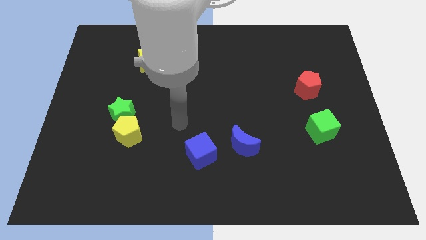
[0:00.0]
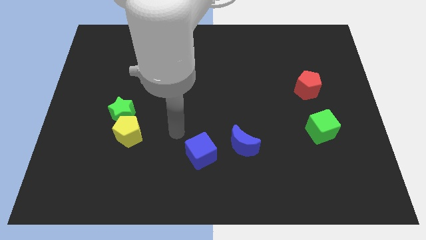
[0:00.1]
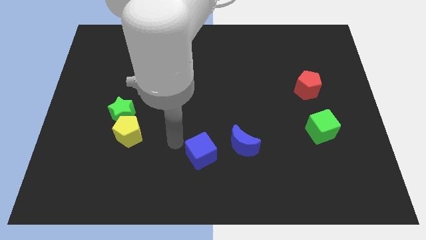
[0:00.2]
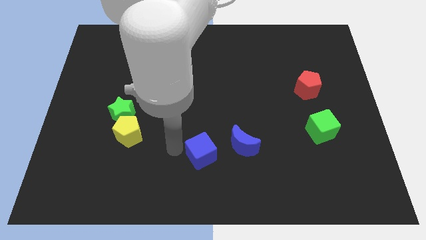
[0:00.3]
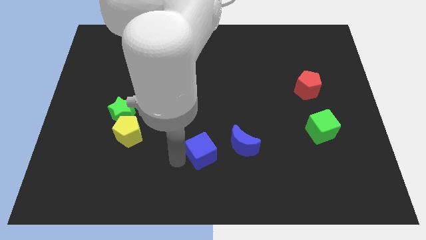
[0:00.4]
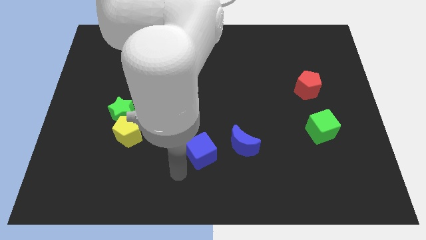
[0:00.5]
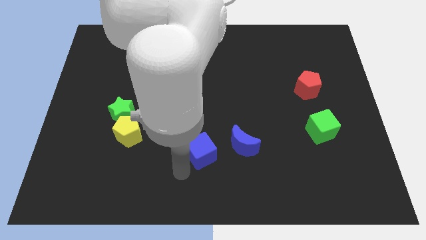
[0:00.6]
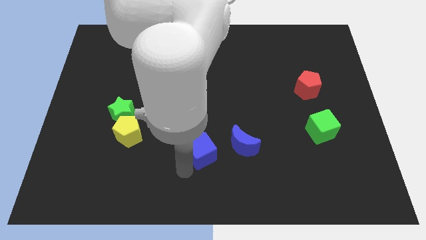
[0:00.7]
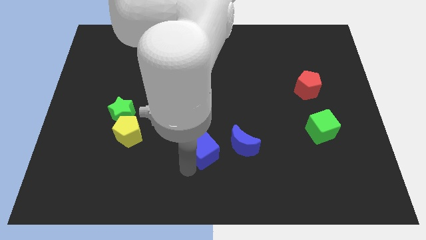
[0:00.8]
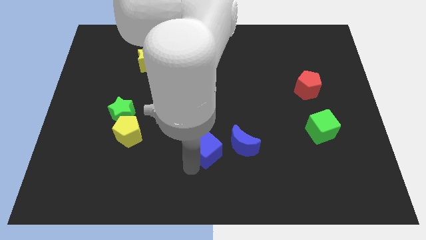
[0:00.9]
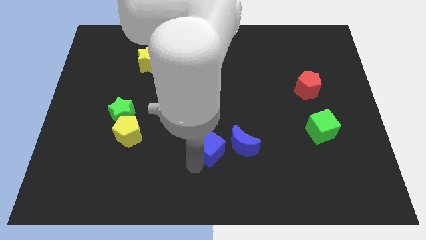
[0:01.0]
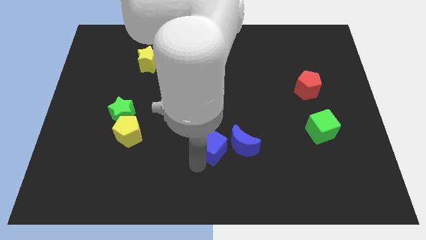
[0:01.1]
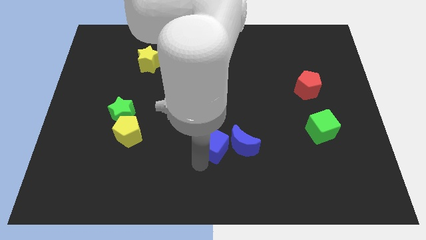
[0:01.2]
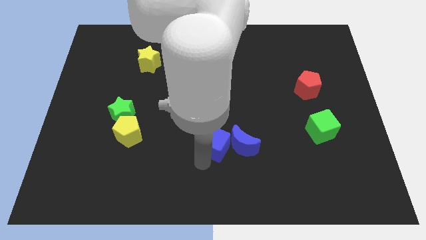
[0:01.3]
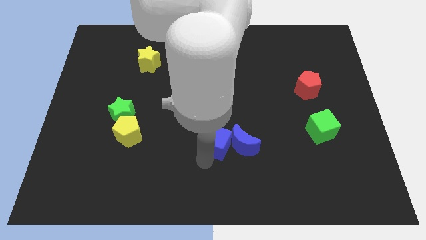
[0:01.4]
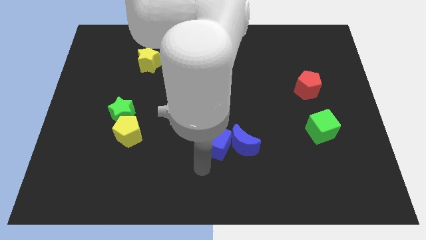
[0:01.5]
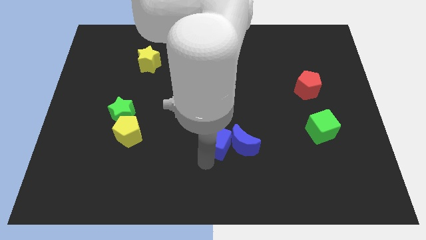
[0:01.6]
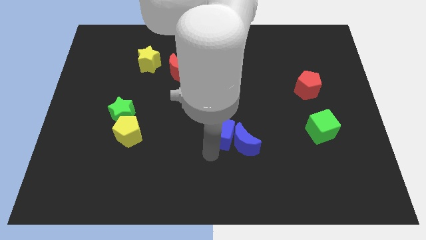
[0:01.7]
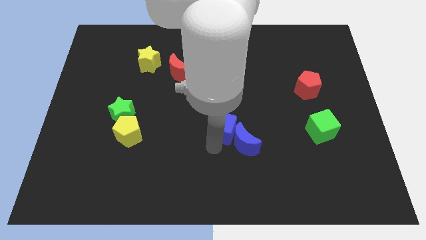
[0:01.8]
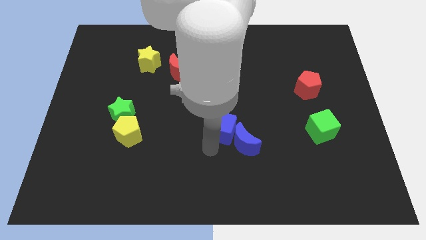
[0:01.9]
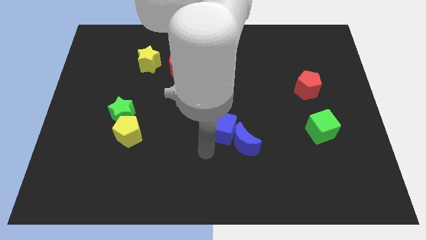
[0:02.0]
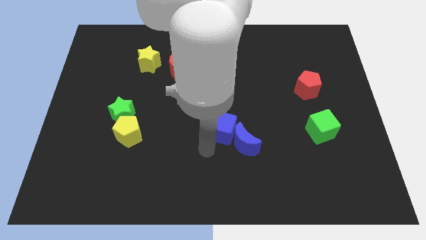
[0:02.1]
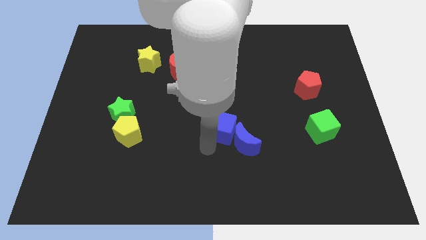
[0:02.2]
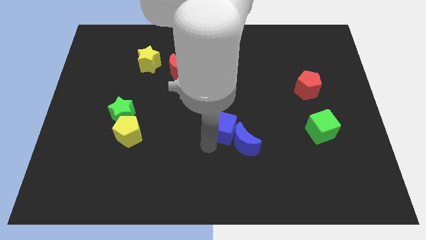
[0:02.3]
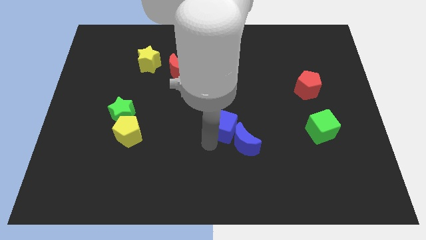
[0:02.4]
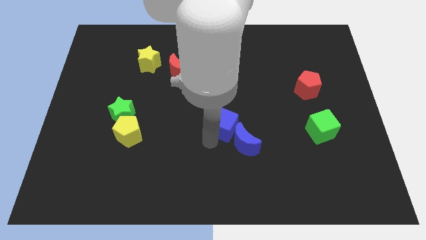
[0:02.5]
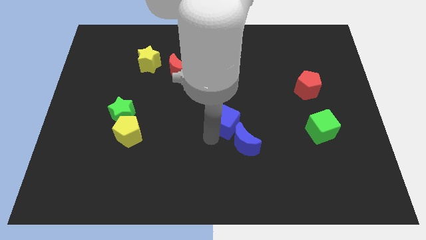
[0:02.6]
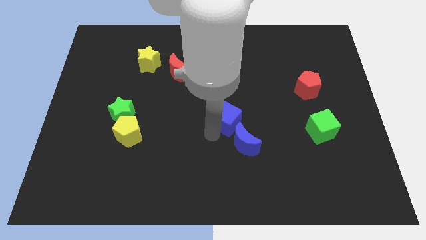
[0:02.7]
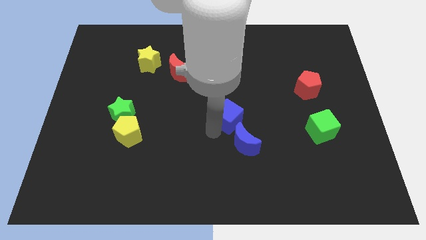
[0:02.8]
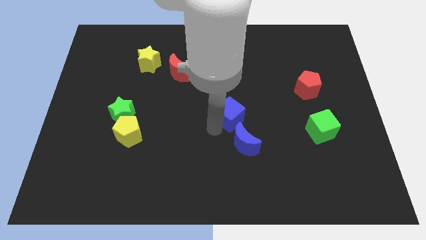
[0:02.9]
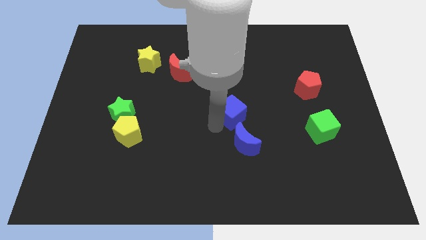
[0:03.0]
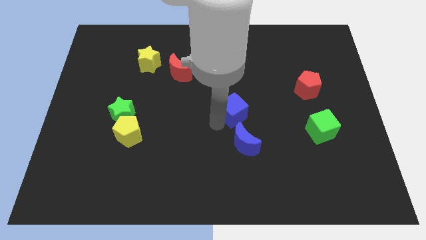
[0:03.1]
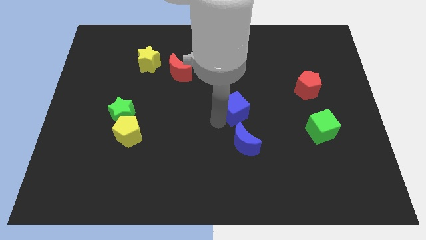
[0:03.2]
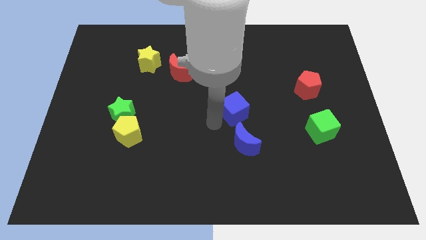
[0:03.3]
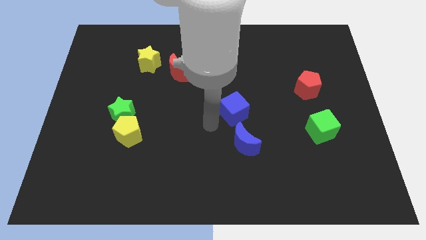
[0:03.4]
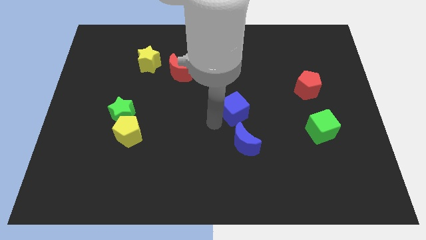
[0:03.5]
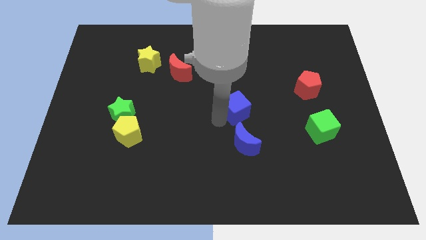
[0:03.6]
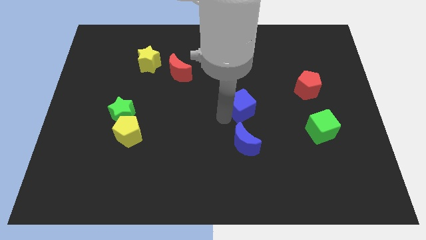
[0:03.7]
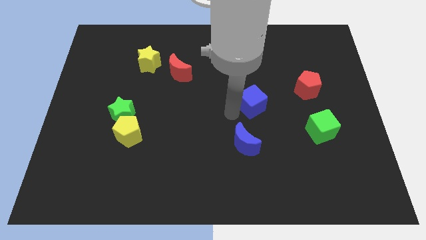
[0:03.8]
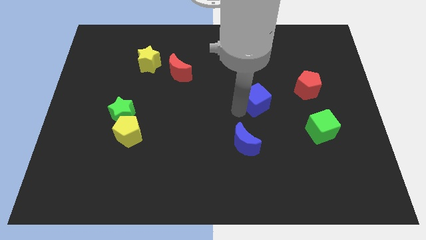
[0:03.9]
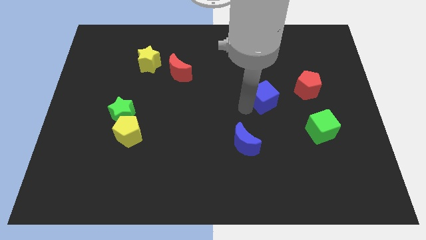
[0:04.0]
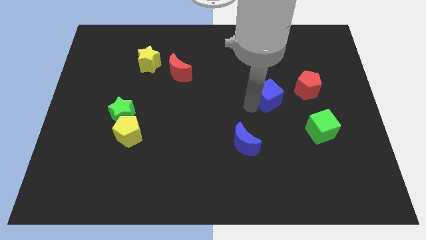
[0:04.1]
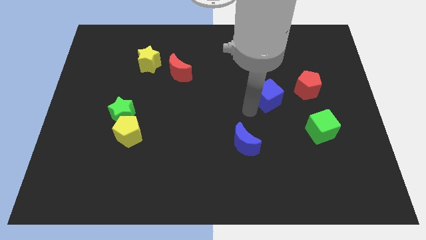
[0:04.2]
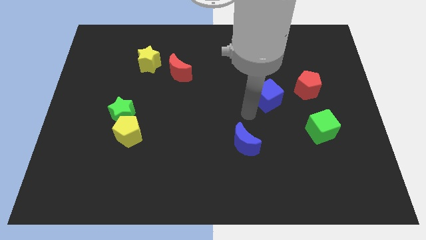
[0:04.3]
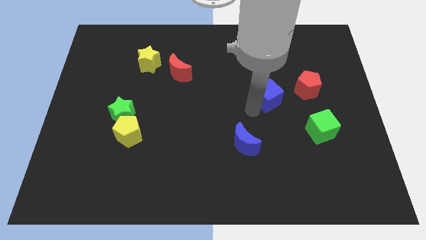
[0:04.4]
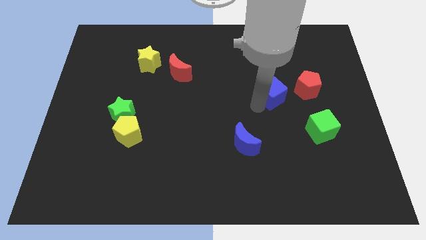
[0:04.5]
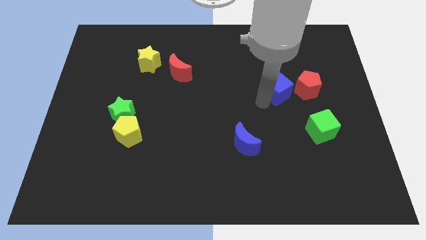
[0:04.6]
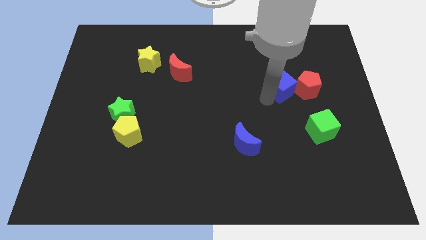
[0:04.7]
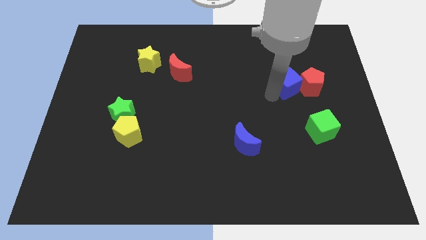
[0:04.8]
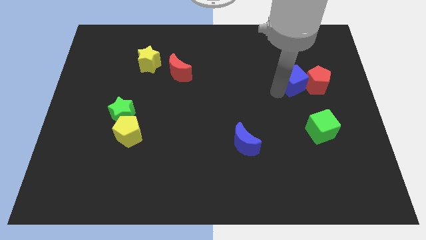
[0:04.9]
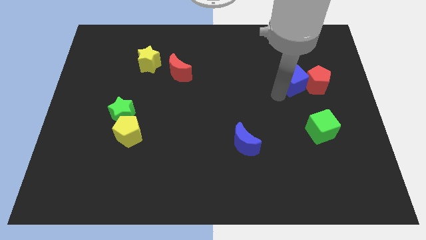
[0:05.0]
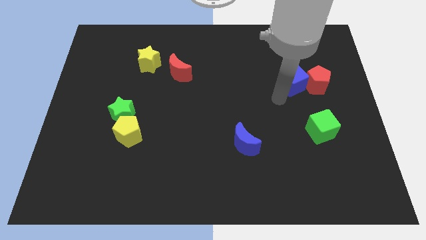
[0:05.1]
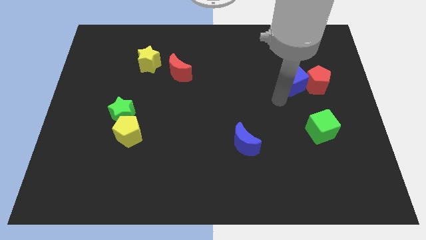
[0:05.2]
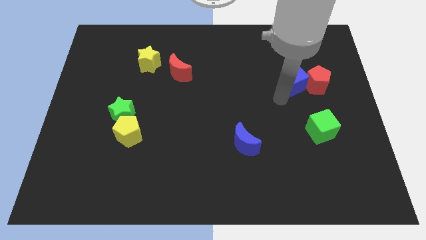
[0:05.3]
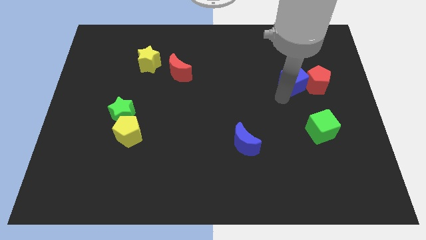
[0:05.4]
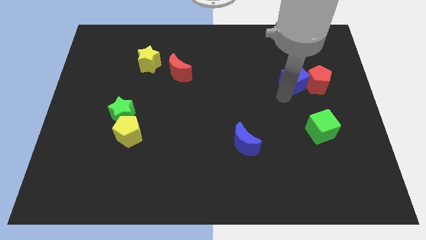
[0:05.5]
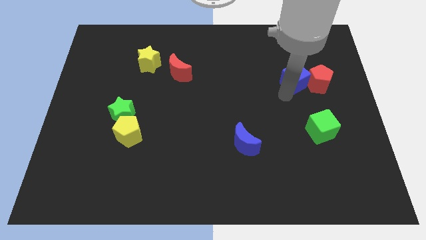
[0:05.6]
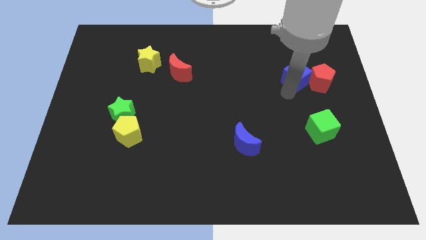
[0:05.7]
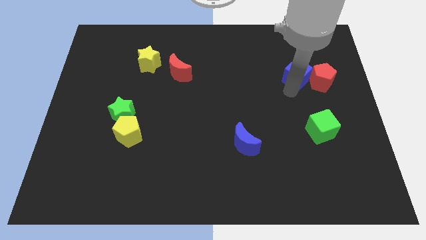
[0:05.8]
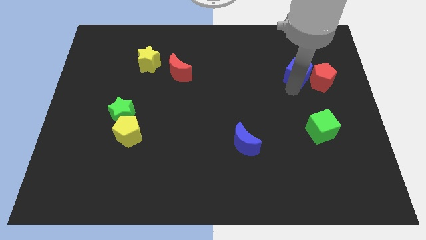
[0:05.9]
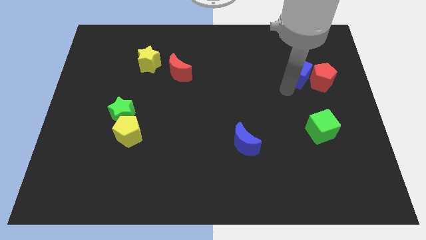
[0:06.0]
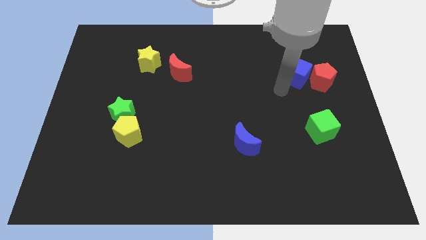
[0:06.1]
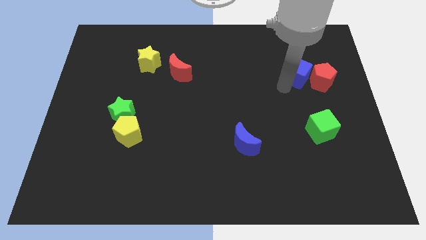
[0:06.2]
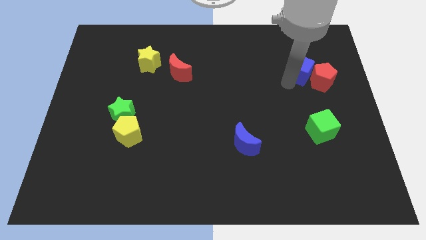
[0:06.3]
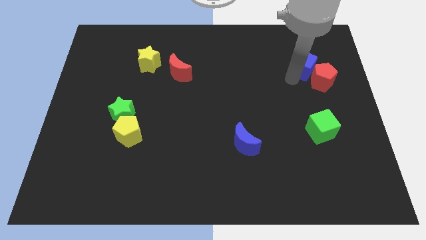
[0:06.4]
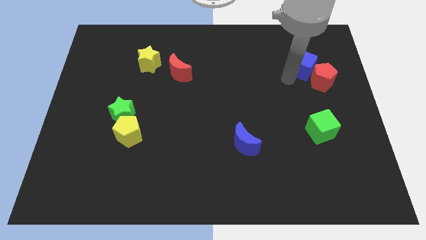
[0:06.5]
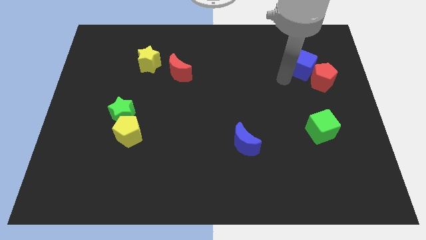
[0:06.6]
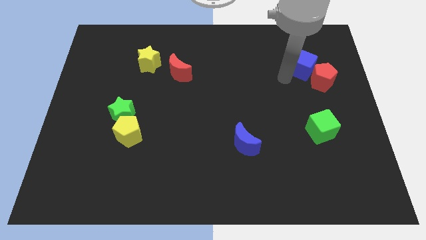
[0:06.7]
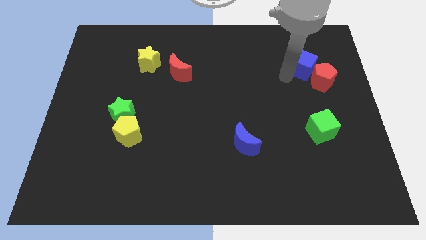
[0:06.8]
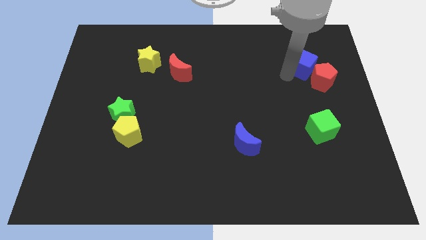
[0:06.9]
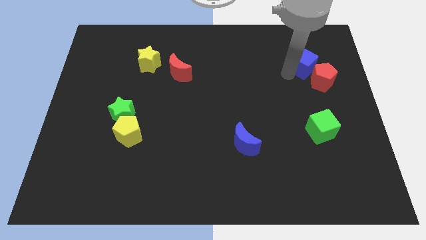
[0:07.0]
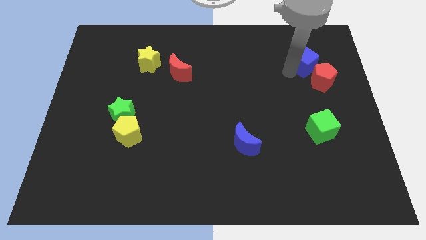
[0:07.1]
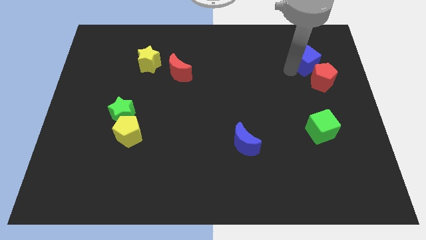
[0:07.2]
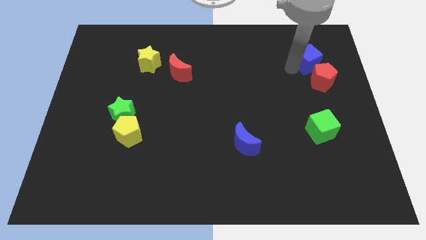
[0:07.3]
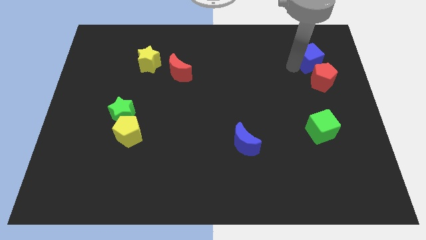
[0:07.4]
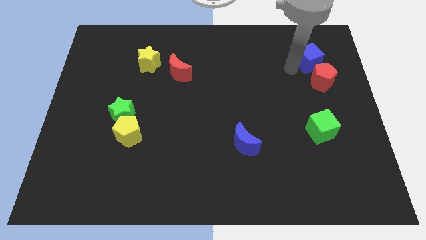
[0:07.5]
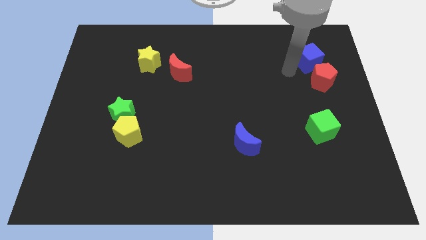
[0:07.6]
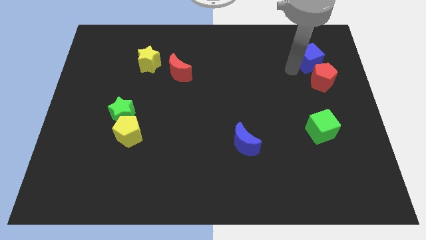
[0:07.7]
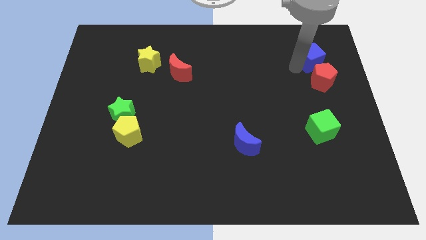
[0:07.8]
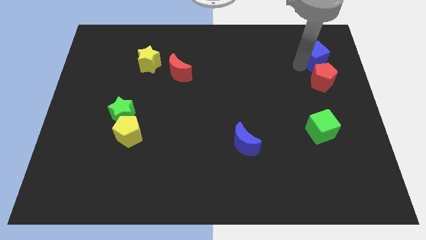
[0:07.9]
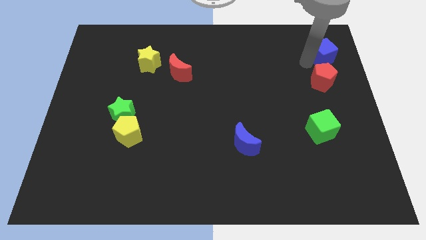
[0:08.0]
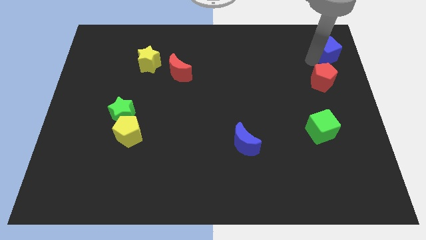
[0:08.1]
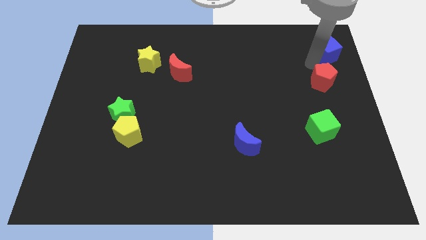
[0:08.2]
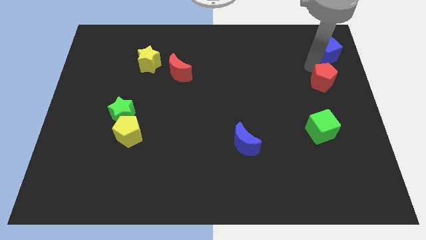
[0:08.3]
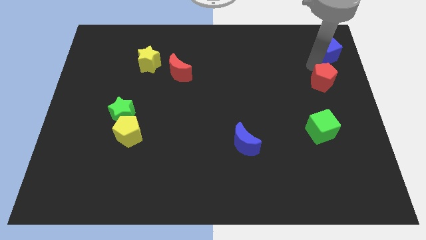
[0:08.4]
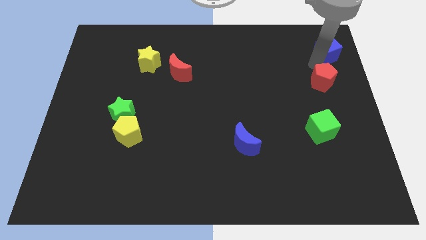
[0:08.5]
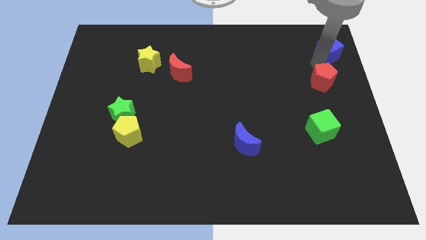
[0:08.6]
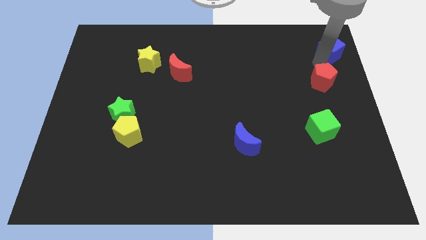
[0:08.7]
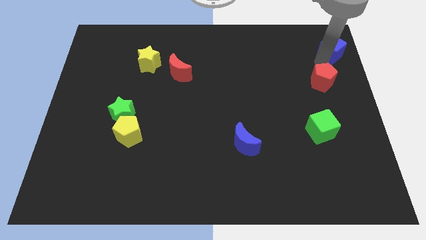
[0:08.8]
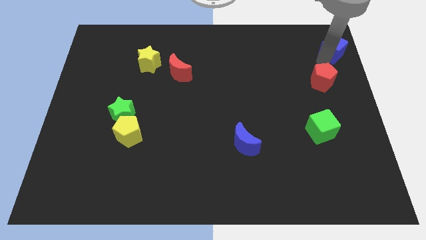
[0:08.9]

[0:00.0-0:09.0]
move the blue cube to the top right
